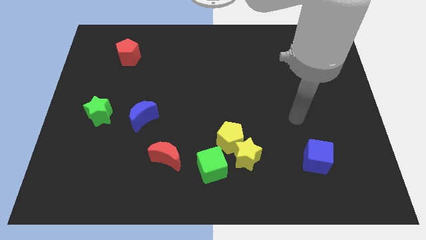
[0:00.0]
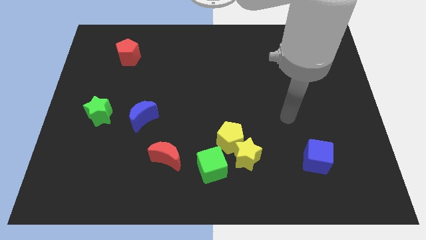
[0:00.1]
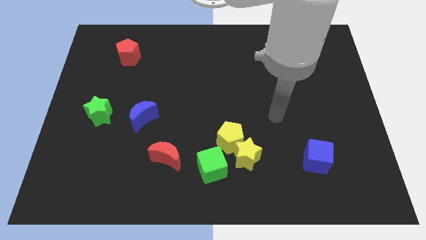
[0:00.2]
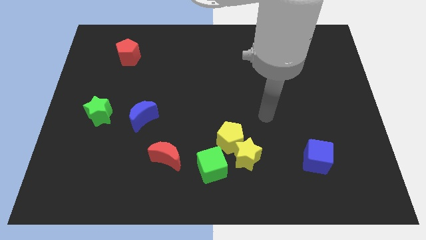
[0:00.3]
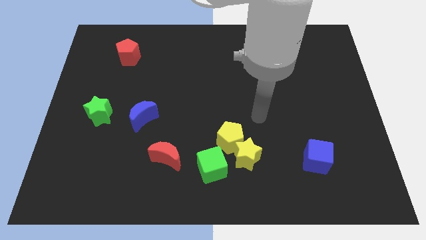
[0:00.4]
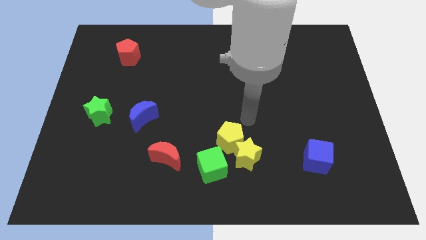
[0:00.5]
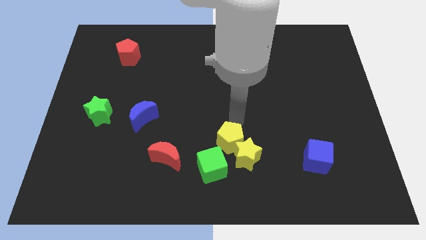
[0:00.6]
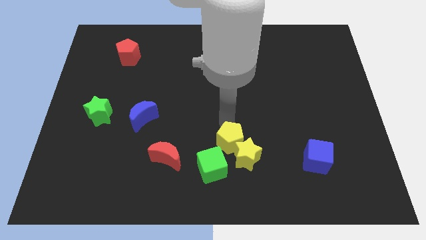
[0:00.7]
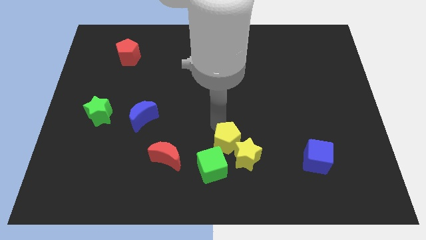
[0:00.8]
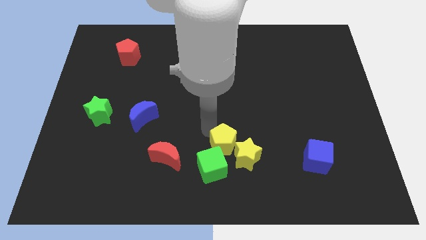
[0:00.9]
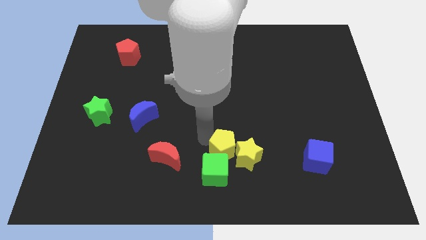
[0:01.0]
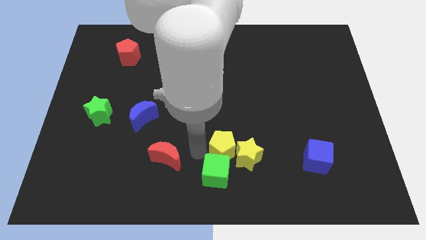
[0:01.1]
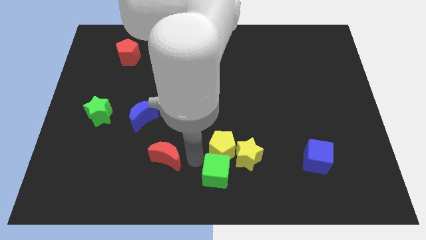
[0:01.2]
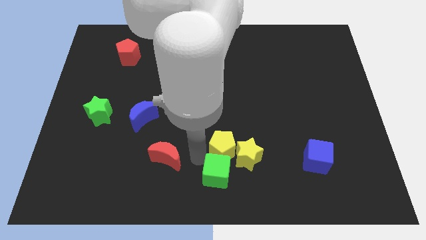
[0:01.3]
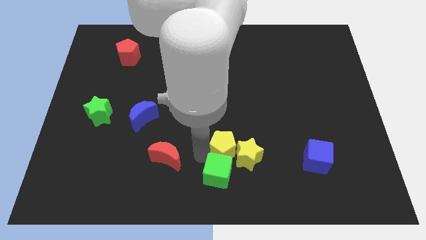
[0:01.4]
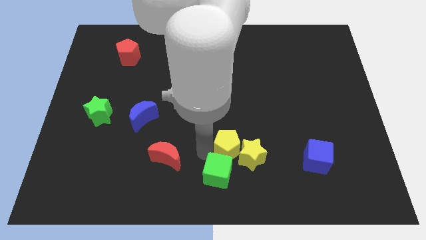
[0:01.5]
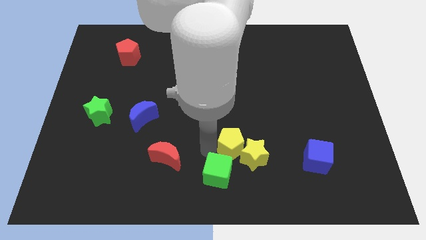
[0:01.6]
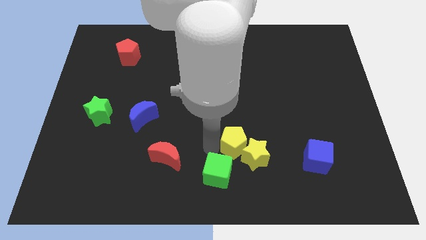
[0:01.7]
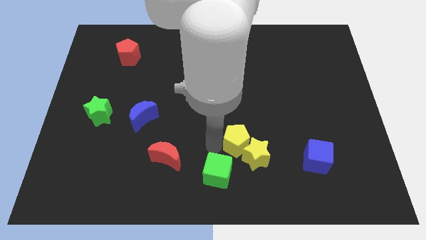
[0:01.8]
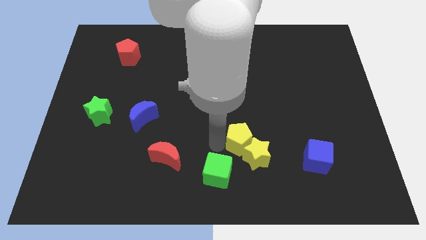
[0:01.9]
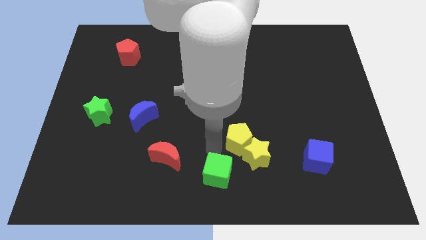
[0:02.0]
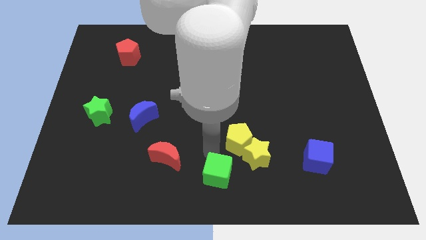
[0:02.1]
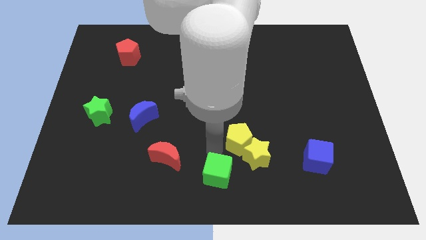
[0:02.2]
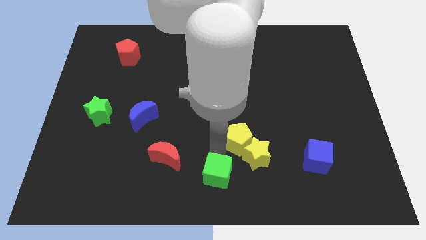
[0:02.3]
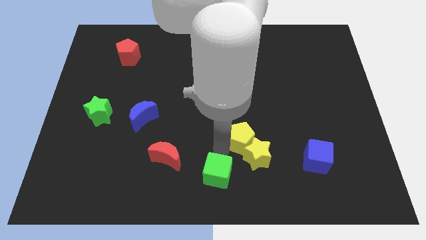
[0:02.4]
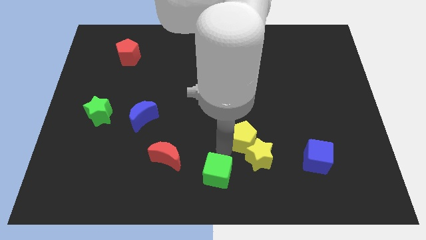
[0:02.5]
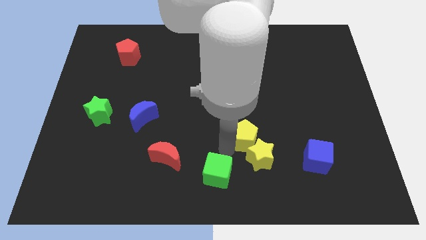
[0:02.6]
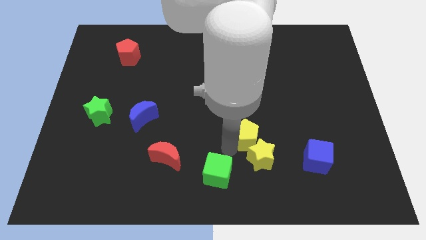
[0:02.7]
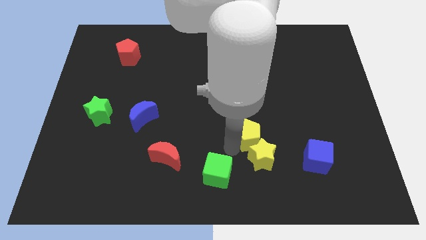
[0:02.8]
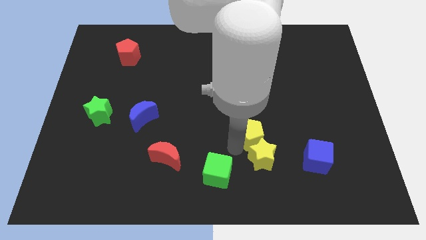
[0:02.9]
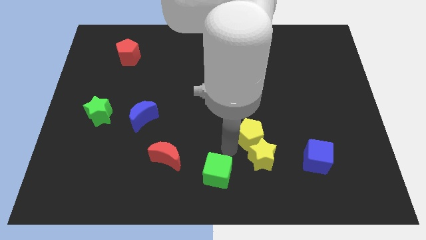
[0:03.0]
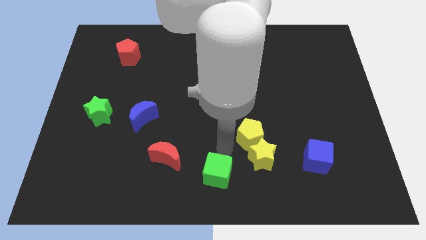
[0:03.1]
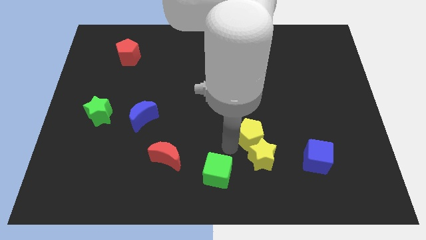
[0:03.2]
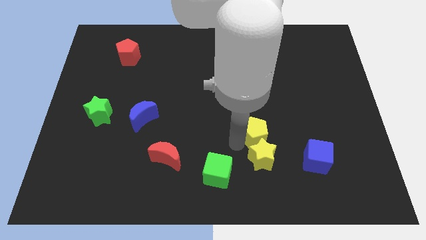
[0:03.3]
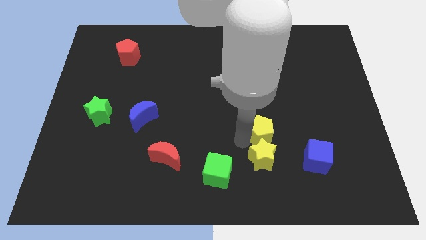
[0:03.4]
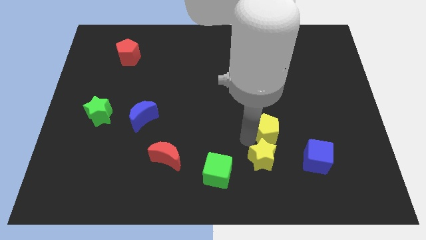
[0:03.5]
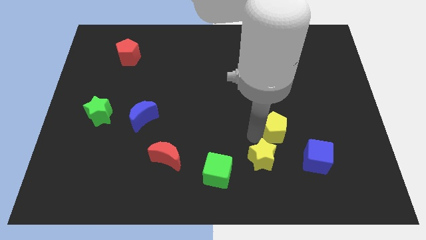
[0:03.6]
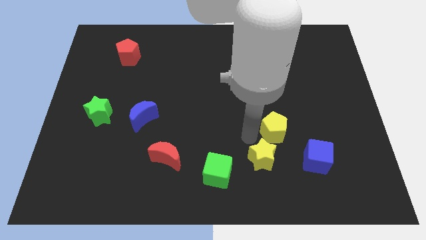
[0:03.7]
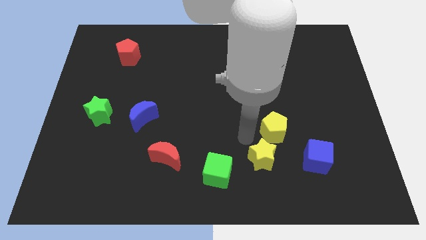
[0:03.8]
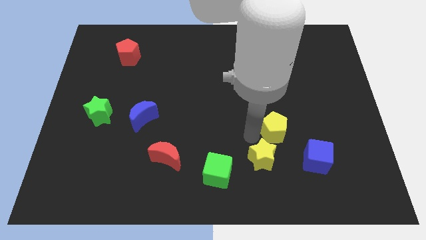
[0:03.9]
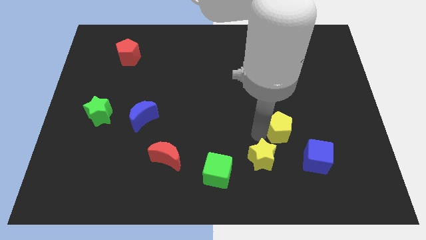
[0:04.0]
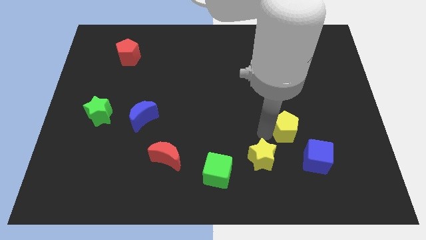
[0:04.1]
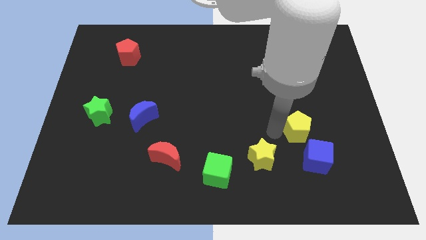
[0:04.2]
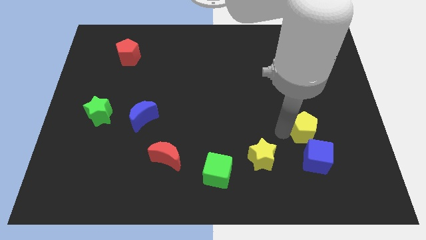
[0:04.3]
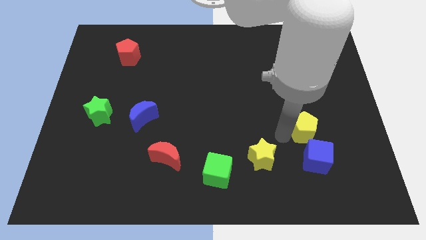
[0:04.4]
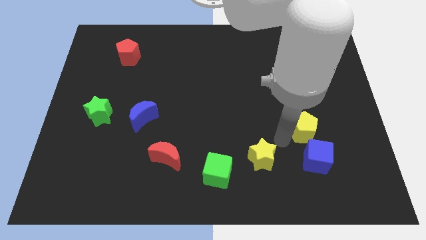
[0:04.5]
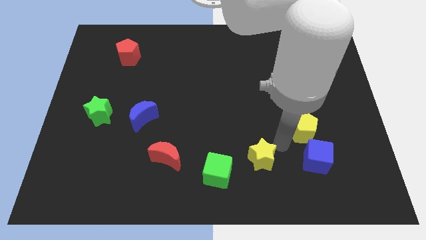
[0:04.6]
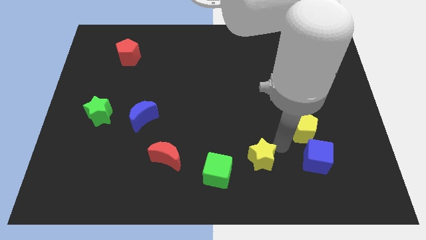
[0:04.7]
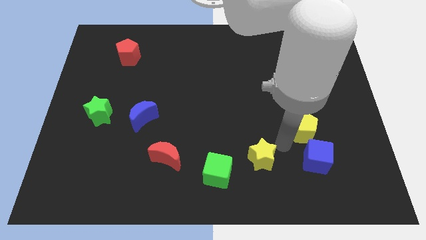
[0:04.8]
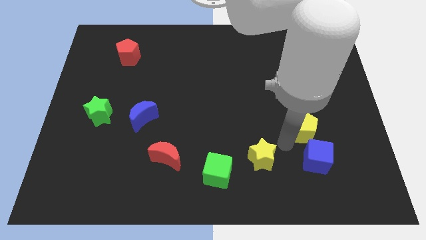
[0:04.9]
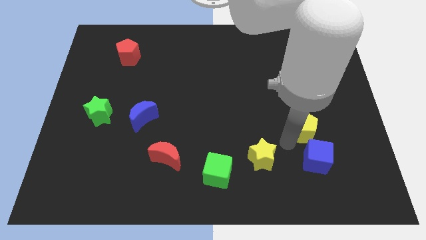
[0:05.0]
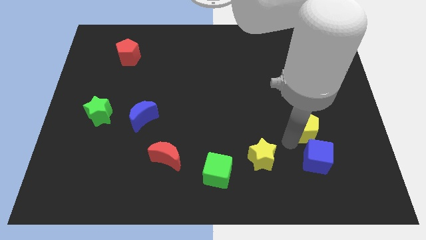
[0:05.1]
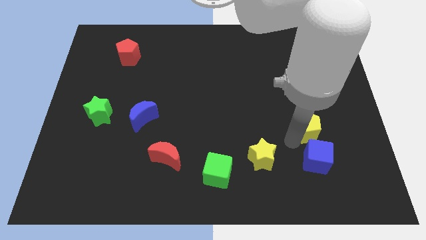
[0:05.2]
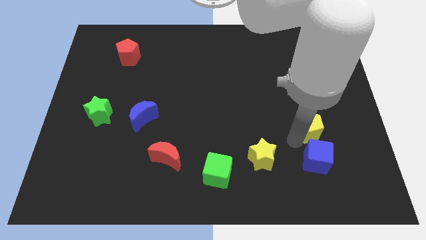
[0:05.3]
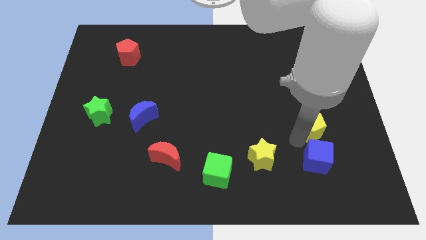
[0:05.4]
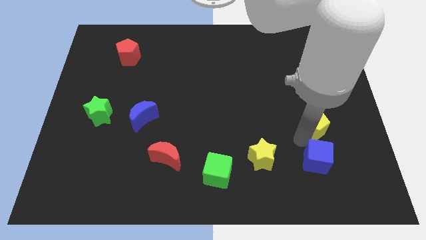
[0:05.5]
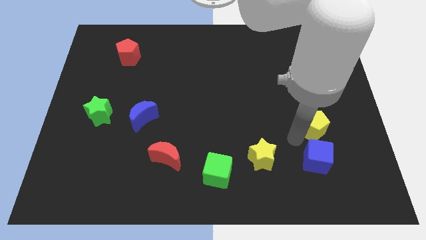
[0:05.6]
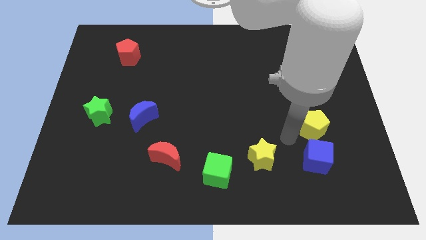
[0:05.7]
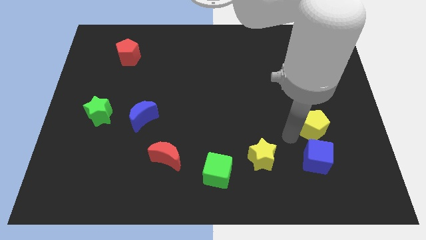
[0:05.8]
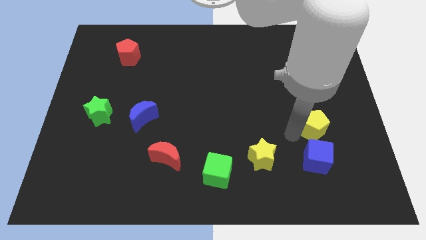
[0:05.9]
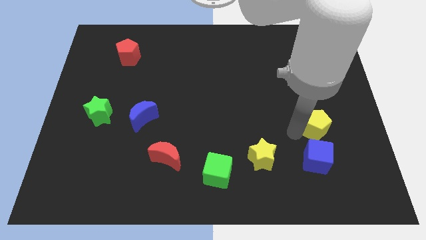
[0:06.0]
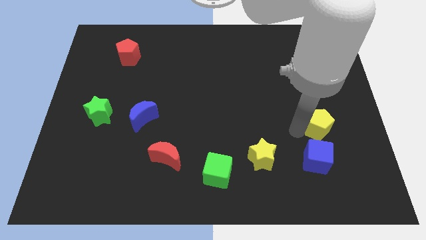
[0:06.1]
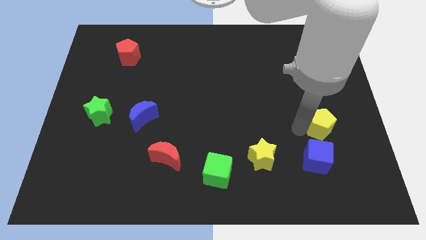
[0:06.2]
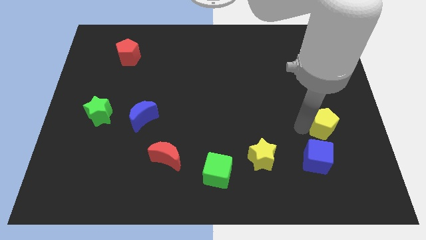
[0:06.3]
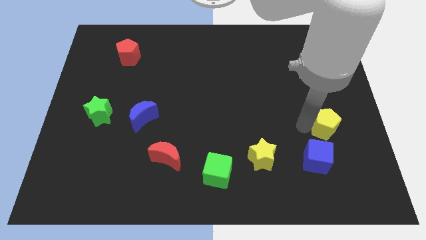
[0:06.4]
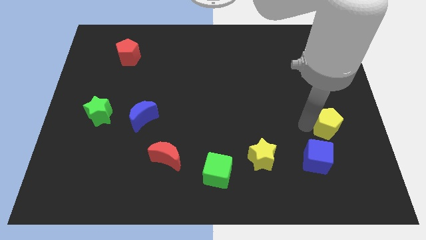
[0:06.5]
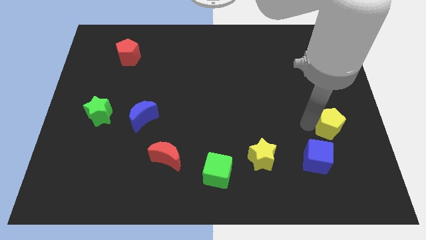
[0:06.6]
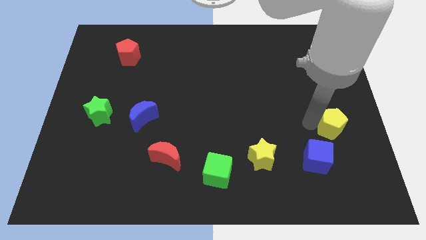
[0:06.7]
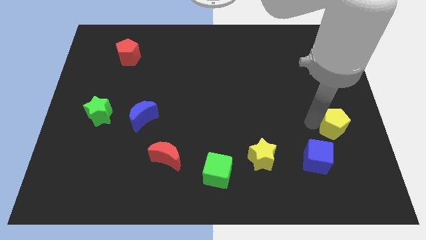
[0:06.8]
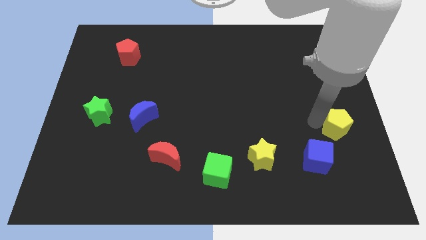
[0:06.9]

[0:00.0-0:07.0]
put the yellow pentagon to the right side
